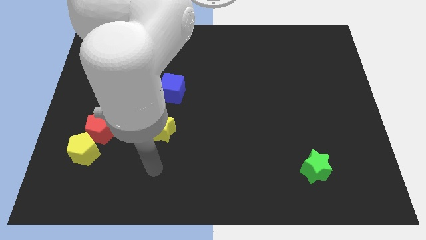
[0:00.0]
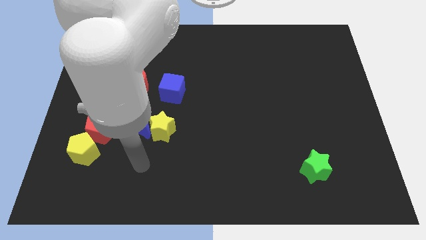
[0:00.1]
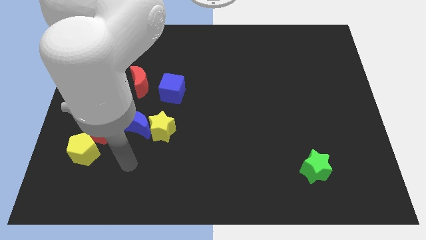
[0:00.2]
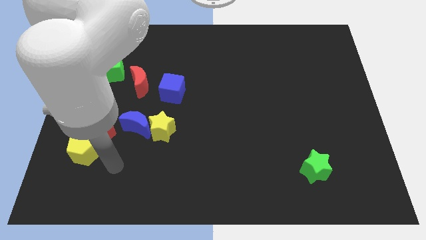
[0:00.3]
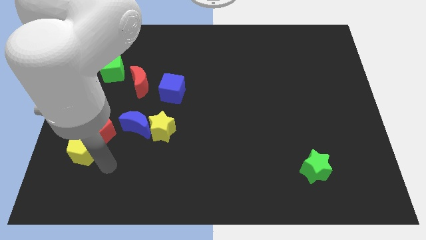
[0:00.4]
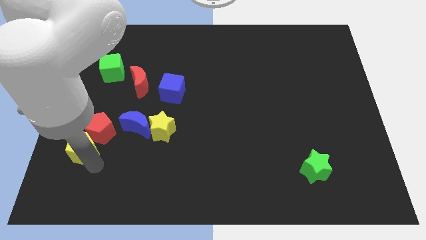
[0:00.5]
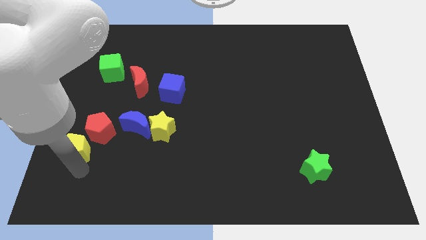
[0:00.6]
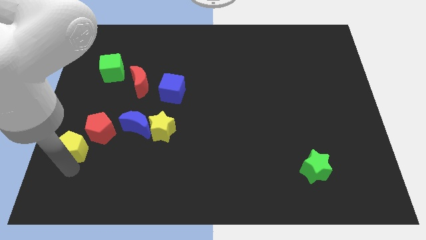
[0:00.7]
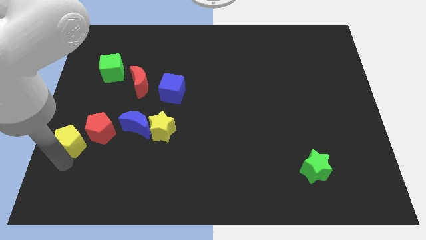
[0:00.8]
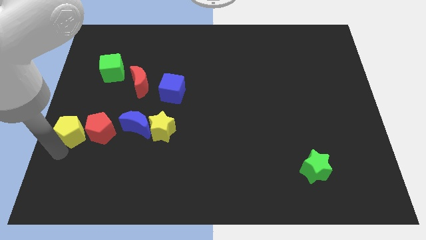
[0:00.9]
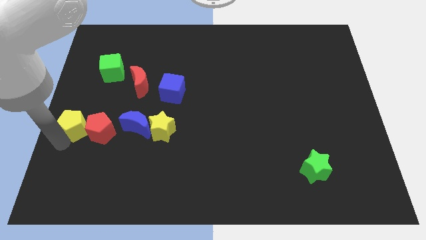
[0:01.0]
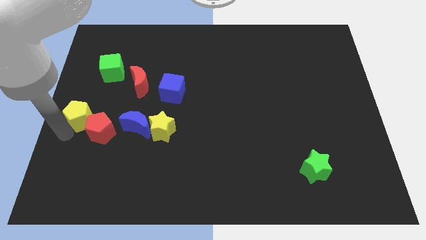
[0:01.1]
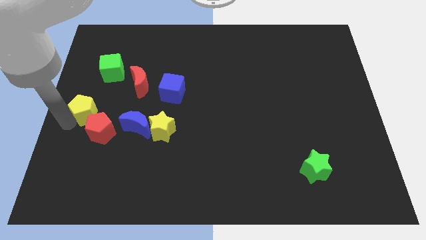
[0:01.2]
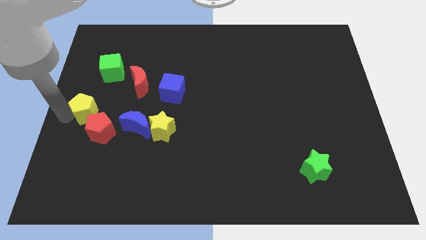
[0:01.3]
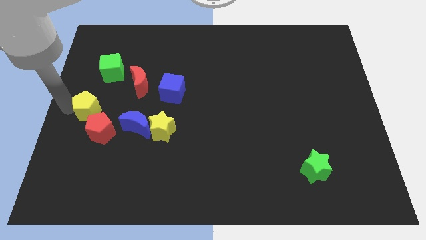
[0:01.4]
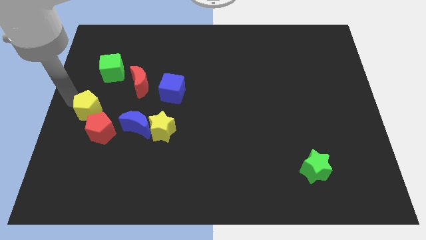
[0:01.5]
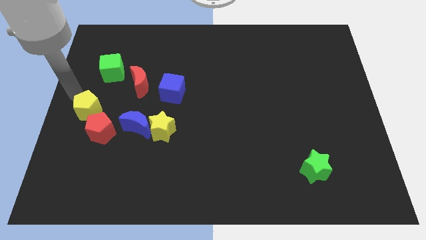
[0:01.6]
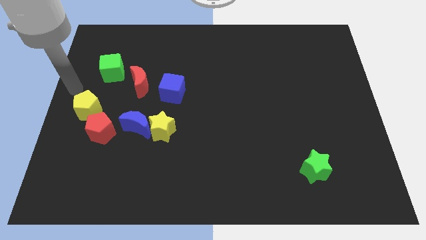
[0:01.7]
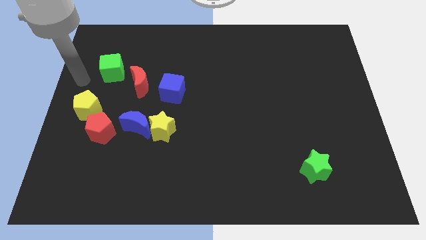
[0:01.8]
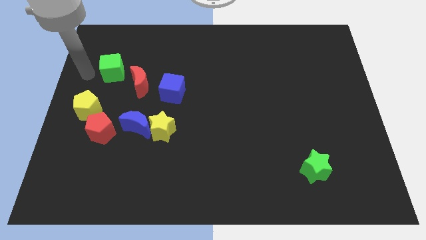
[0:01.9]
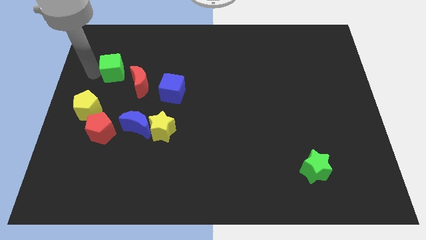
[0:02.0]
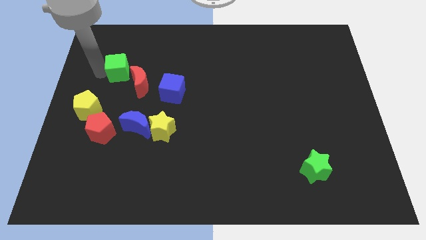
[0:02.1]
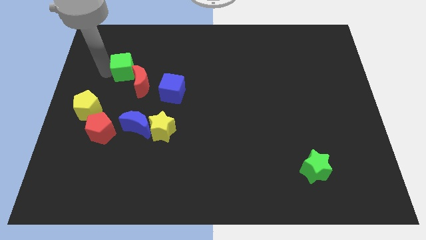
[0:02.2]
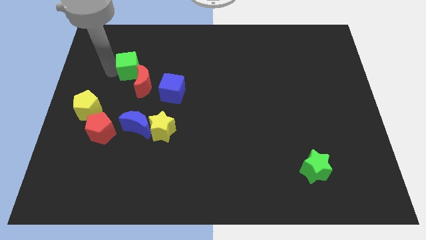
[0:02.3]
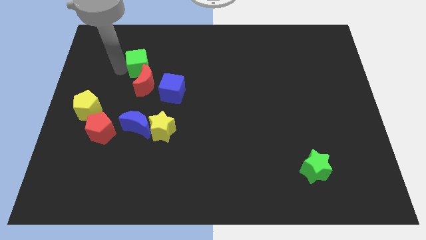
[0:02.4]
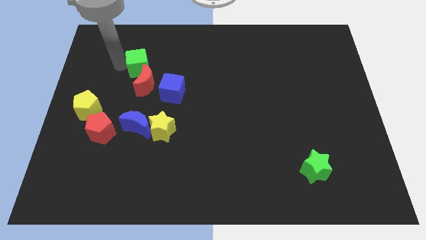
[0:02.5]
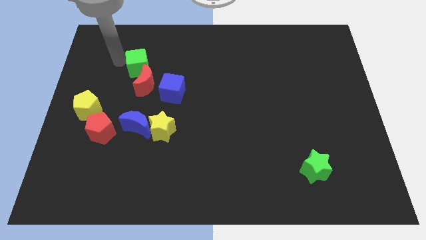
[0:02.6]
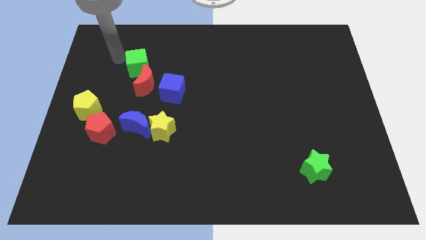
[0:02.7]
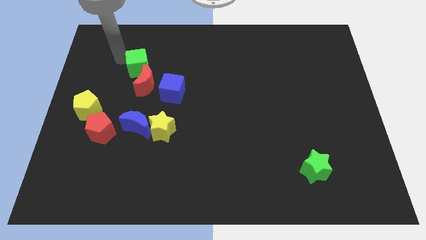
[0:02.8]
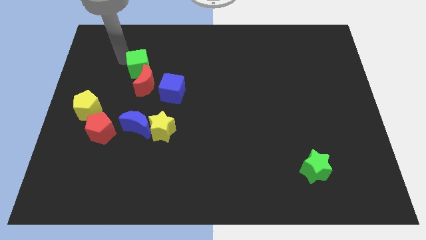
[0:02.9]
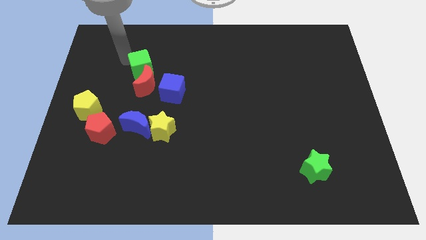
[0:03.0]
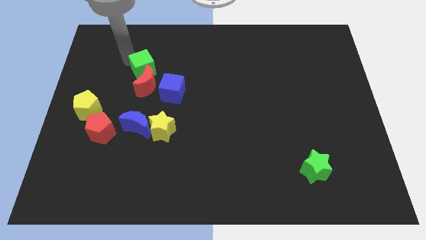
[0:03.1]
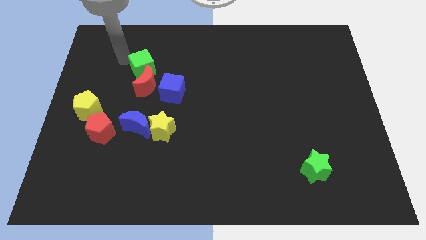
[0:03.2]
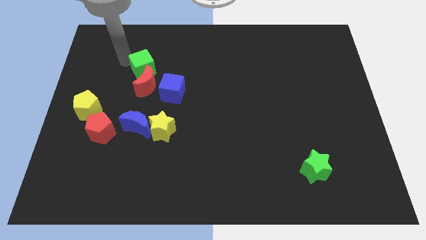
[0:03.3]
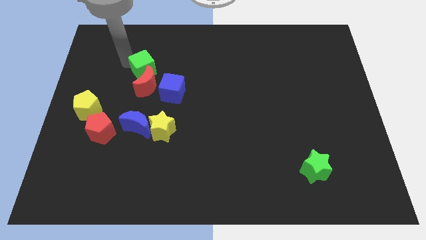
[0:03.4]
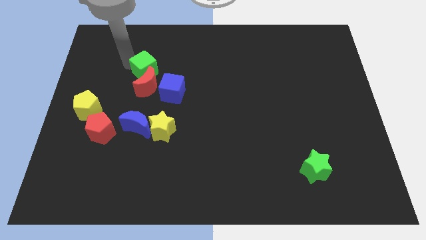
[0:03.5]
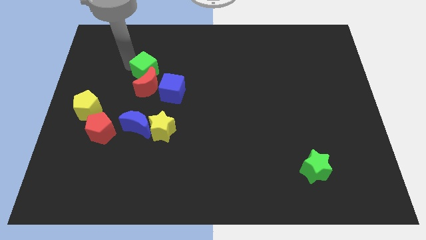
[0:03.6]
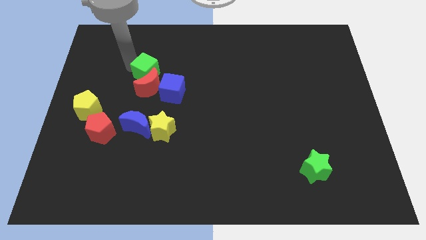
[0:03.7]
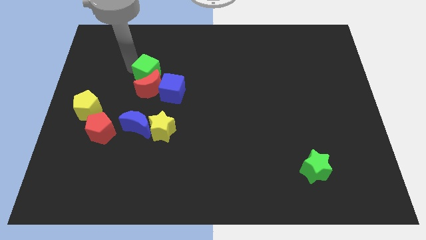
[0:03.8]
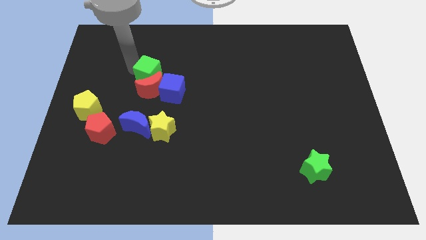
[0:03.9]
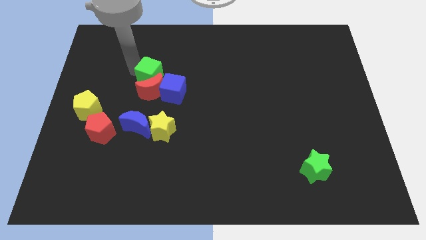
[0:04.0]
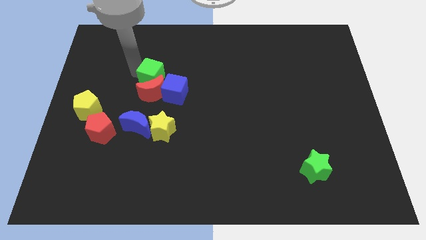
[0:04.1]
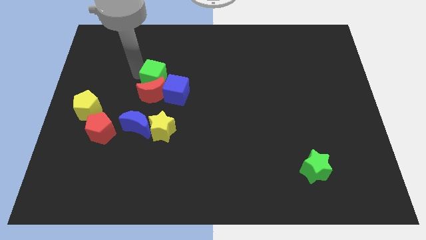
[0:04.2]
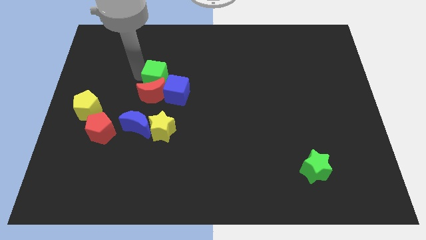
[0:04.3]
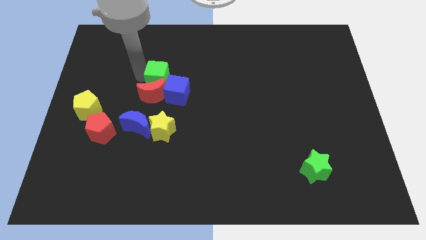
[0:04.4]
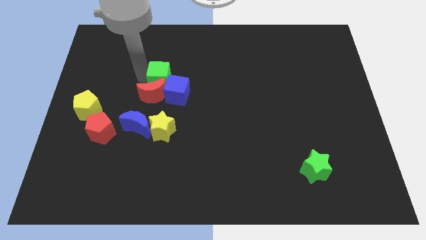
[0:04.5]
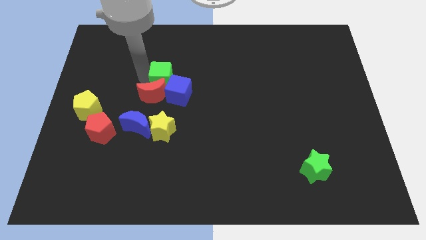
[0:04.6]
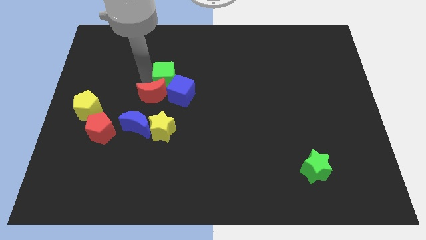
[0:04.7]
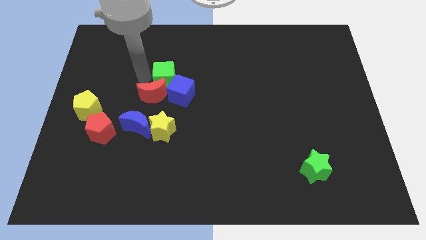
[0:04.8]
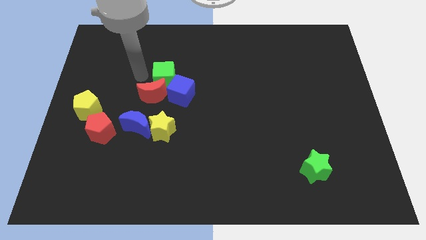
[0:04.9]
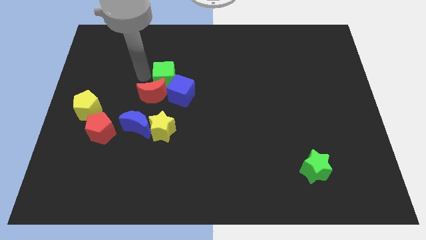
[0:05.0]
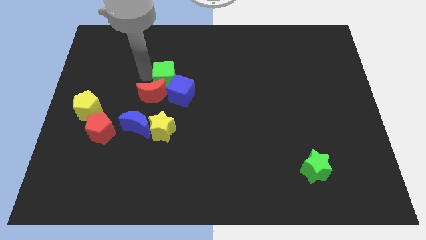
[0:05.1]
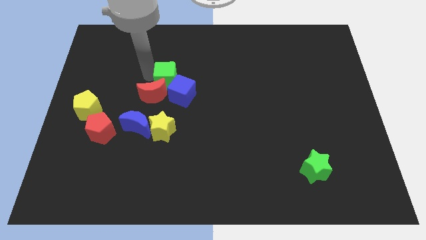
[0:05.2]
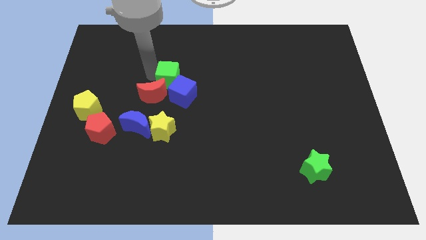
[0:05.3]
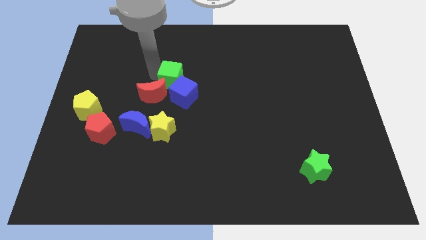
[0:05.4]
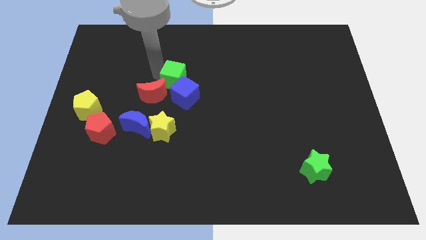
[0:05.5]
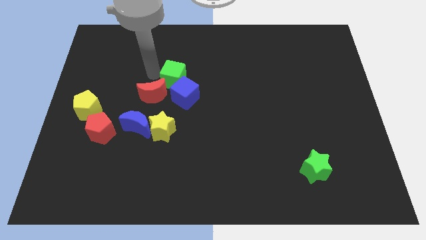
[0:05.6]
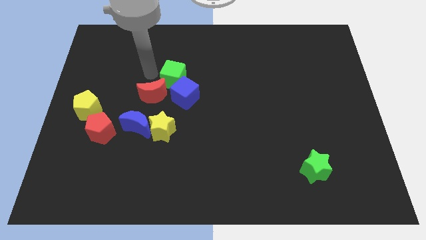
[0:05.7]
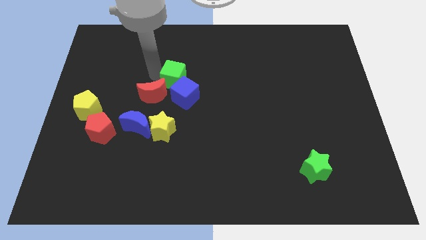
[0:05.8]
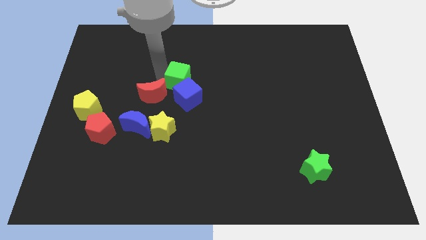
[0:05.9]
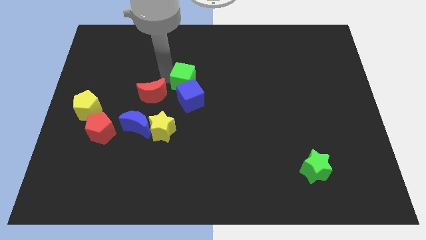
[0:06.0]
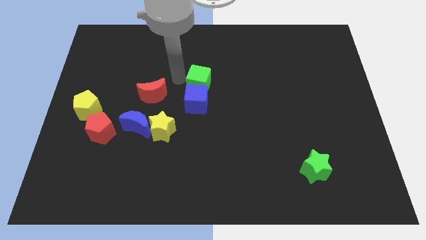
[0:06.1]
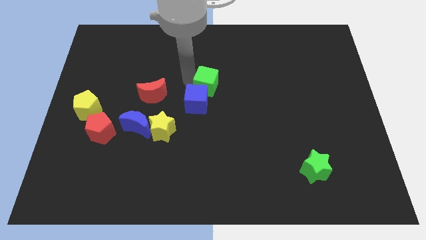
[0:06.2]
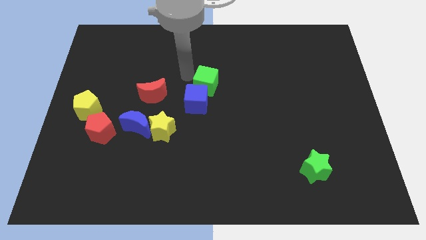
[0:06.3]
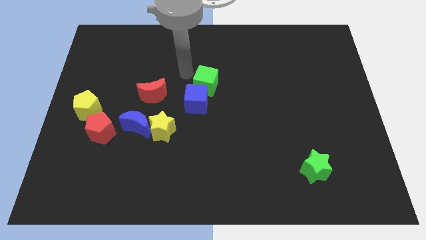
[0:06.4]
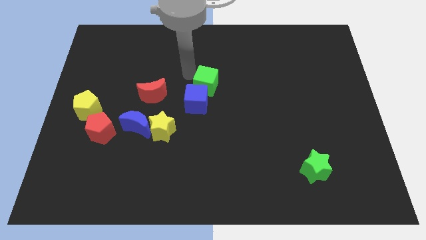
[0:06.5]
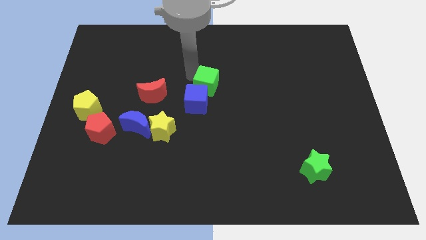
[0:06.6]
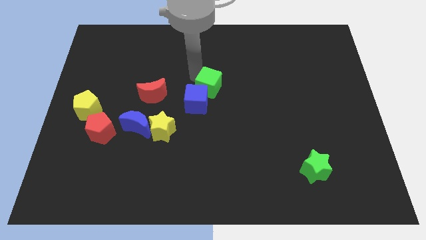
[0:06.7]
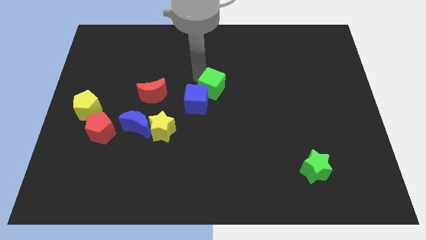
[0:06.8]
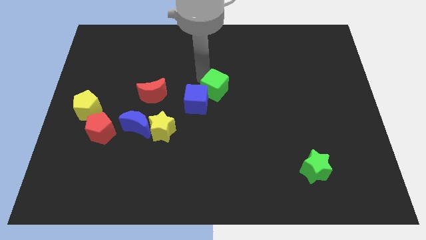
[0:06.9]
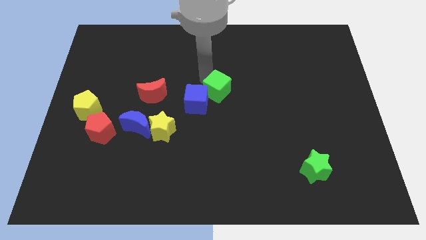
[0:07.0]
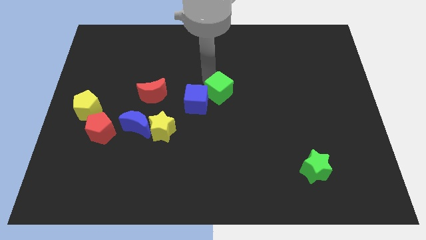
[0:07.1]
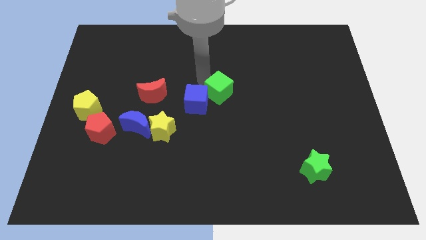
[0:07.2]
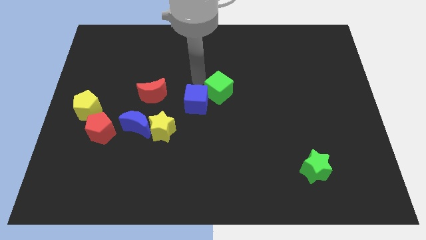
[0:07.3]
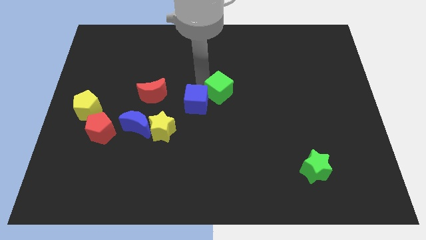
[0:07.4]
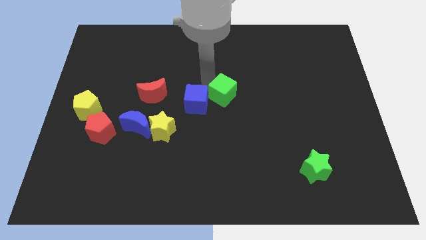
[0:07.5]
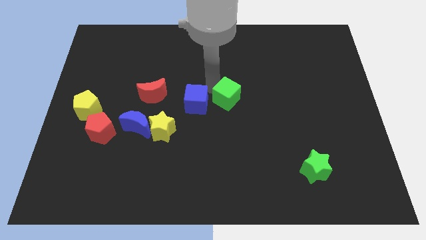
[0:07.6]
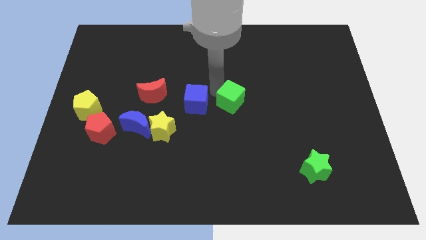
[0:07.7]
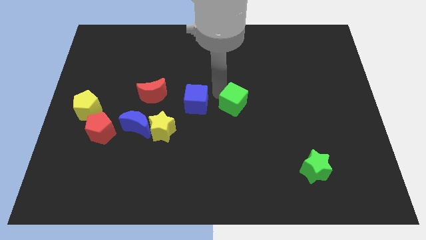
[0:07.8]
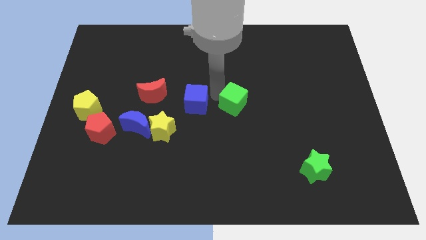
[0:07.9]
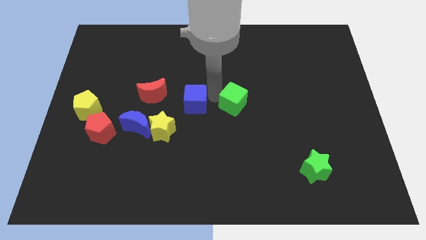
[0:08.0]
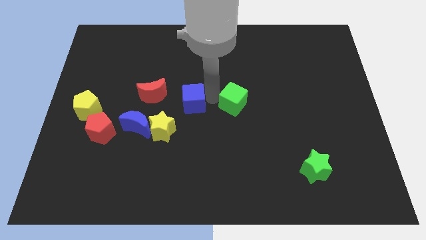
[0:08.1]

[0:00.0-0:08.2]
push the green cube just right of the blue cube
